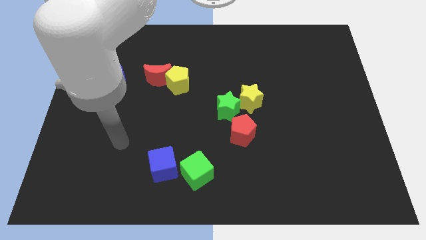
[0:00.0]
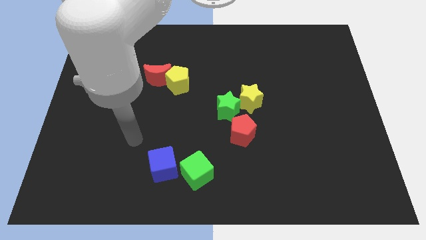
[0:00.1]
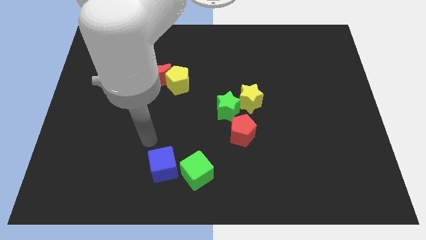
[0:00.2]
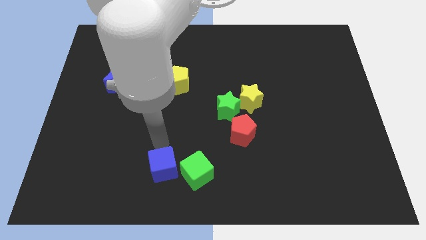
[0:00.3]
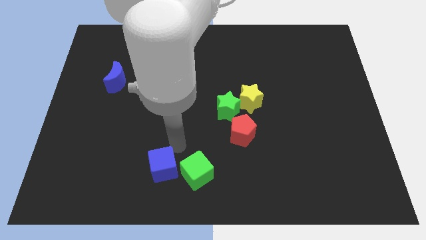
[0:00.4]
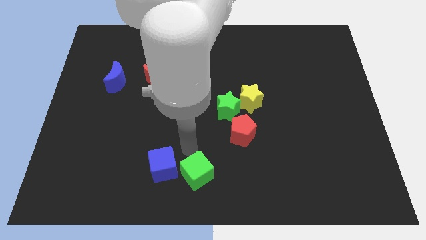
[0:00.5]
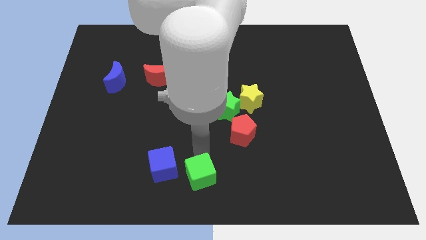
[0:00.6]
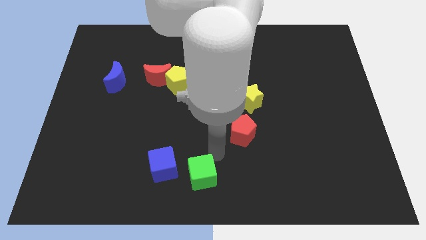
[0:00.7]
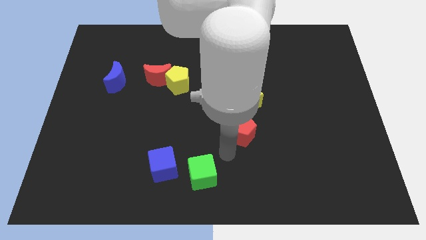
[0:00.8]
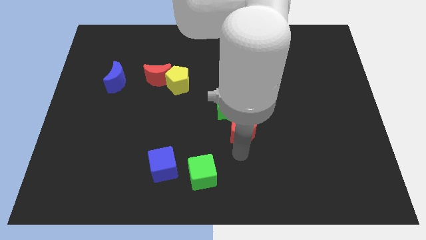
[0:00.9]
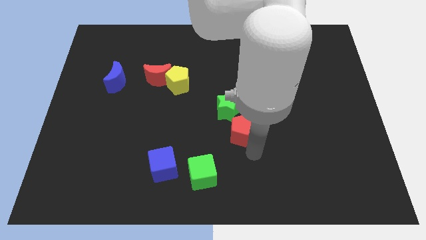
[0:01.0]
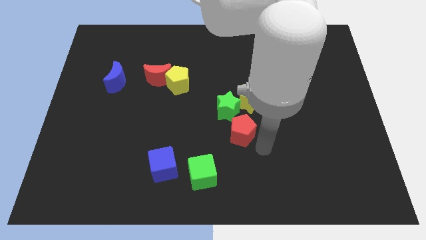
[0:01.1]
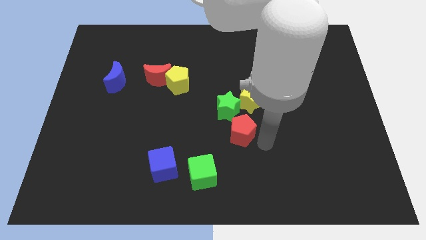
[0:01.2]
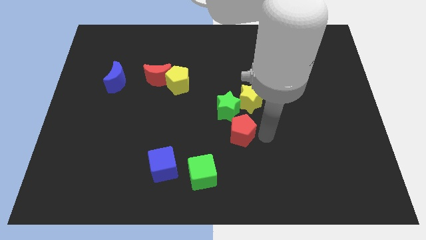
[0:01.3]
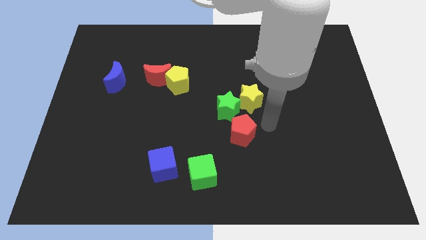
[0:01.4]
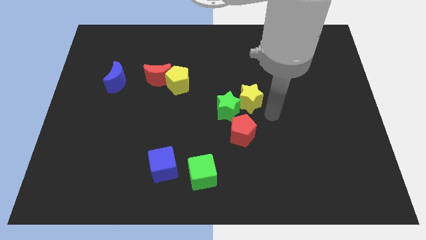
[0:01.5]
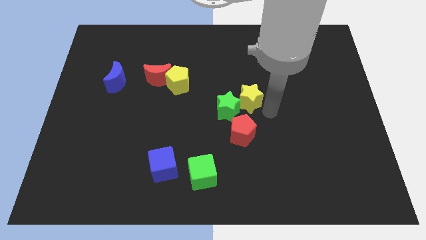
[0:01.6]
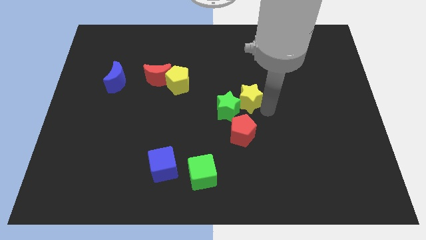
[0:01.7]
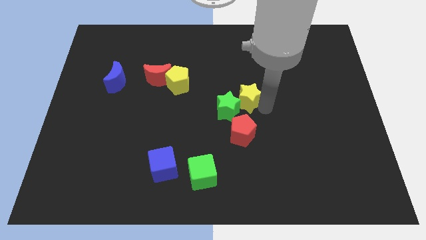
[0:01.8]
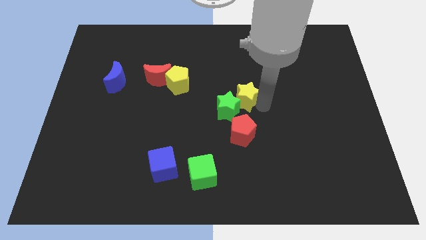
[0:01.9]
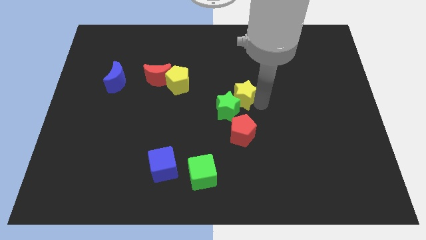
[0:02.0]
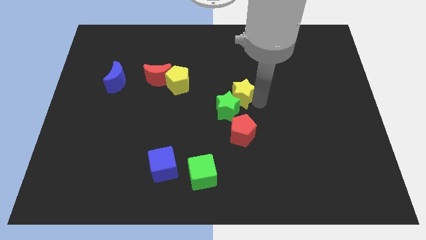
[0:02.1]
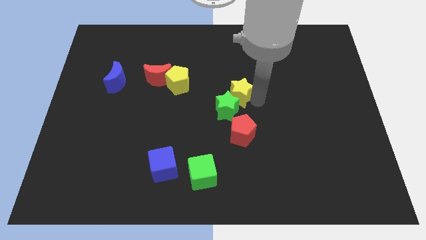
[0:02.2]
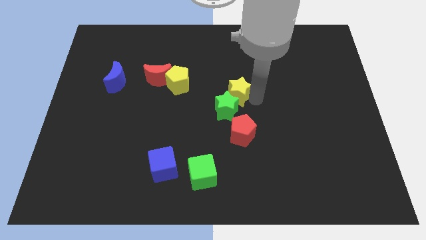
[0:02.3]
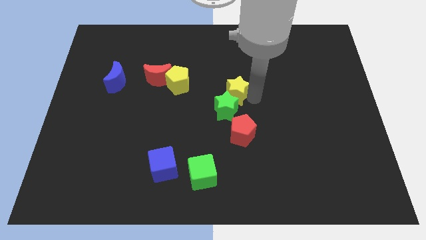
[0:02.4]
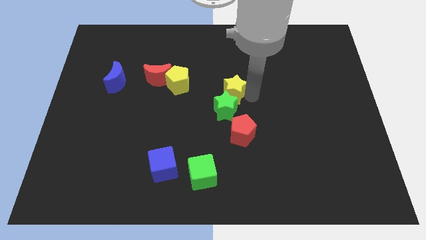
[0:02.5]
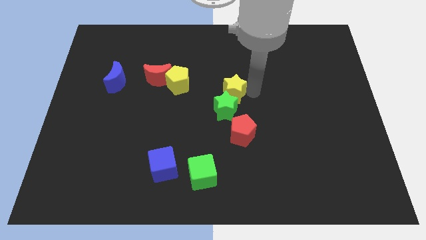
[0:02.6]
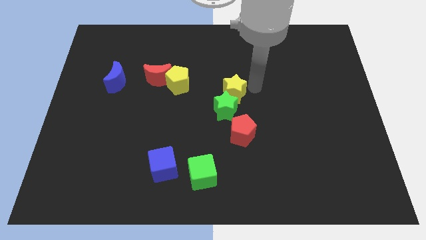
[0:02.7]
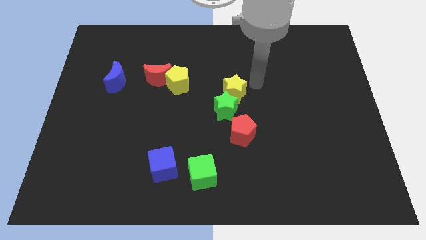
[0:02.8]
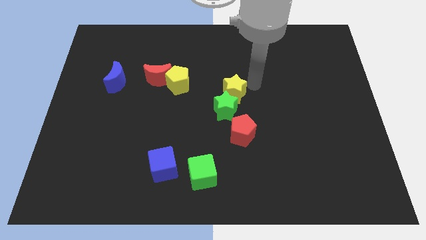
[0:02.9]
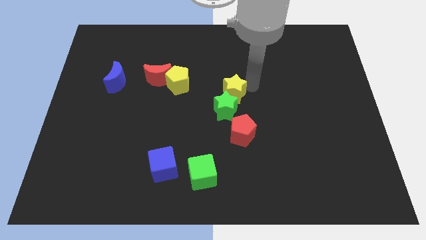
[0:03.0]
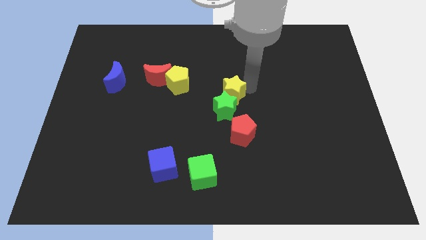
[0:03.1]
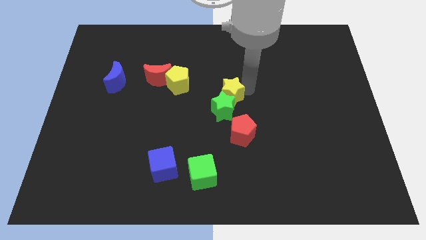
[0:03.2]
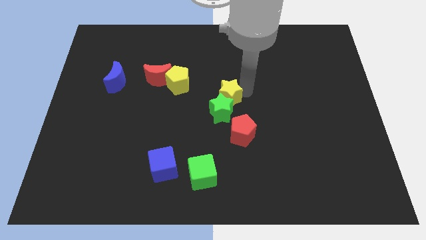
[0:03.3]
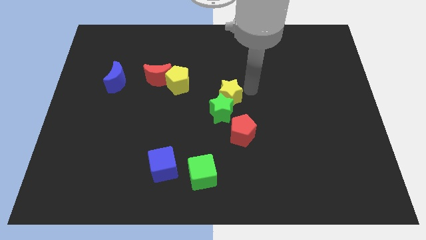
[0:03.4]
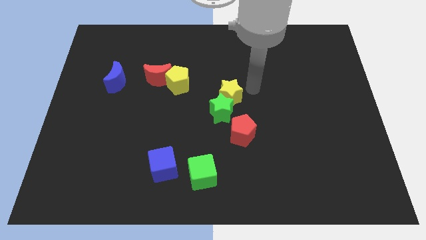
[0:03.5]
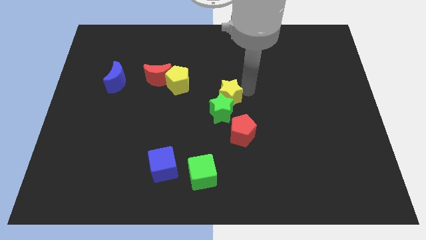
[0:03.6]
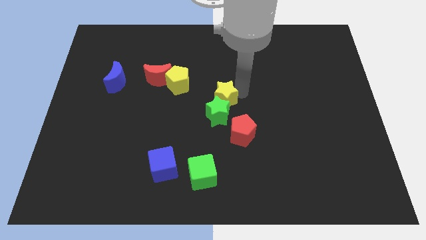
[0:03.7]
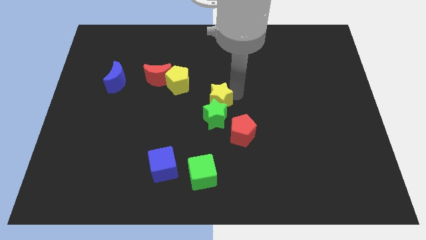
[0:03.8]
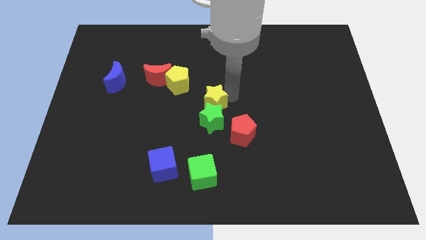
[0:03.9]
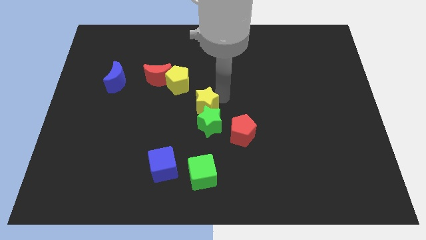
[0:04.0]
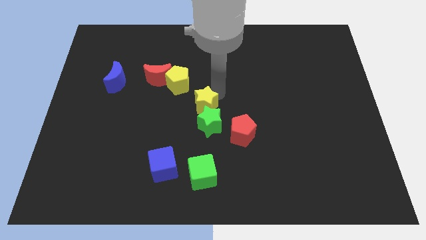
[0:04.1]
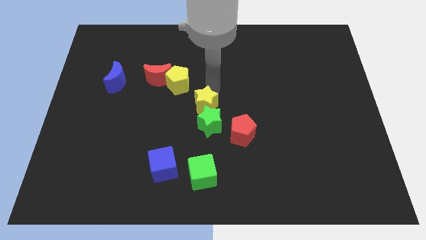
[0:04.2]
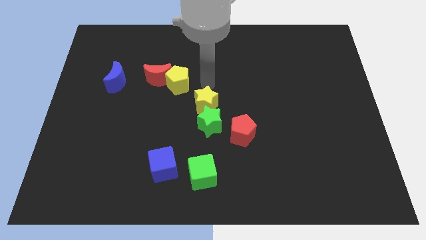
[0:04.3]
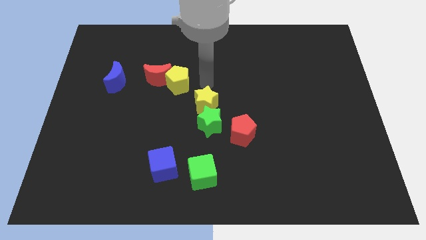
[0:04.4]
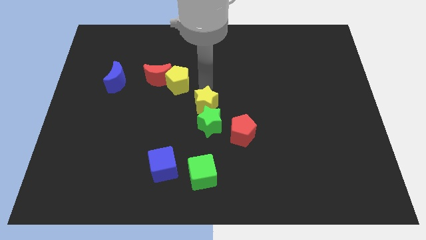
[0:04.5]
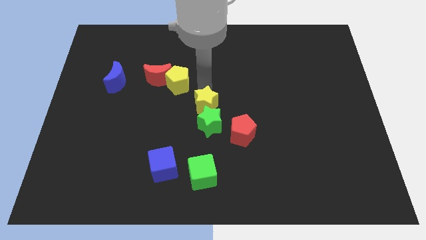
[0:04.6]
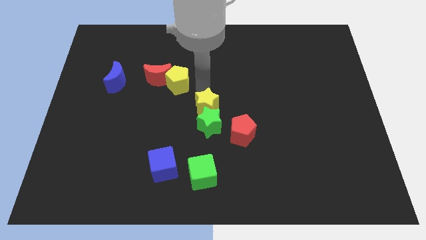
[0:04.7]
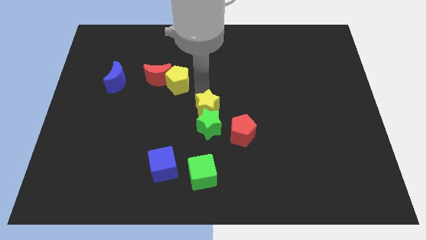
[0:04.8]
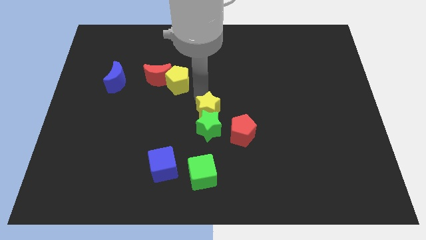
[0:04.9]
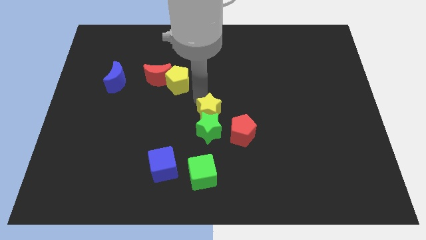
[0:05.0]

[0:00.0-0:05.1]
put the yellow star to the top side of the green cube

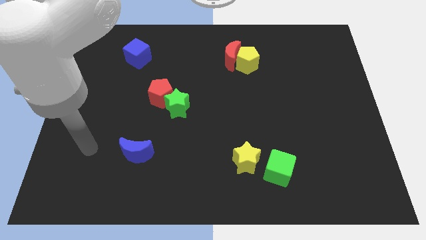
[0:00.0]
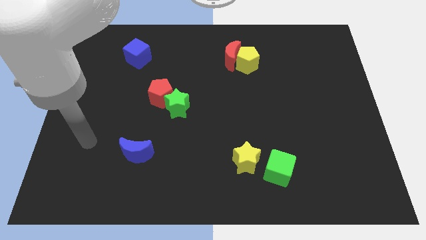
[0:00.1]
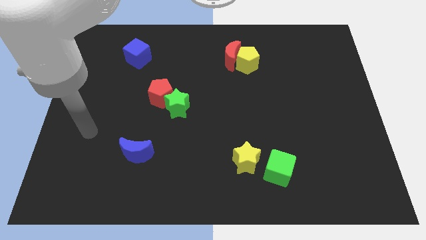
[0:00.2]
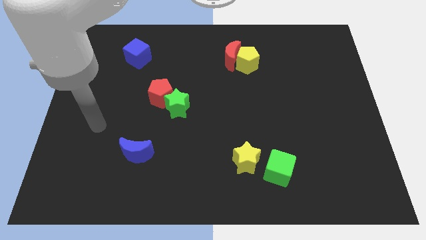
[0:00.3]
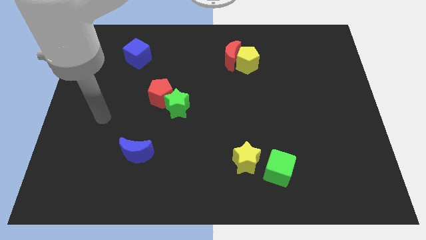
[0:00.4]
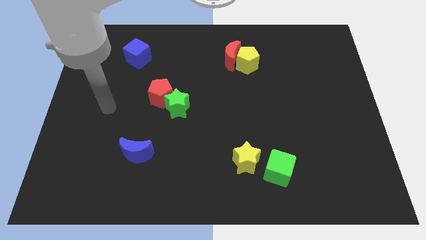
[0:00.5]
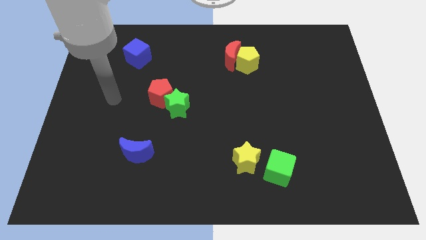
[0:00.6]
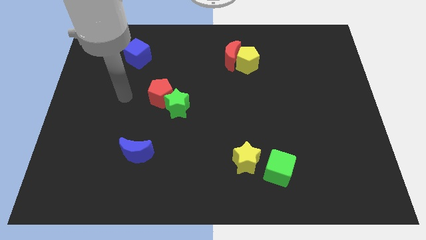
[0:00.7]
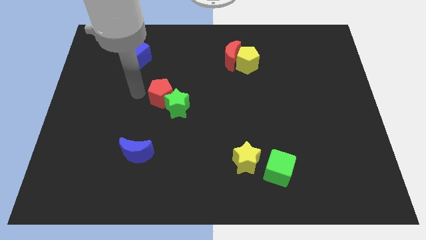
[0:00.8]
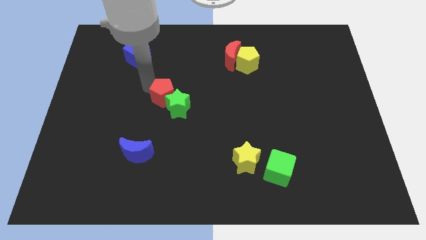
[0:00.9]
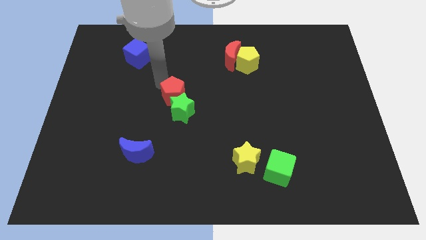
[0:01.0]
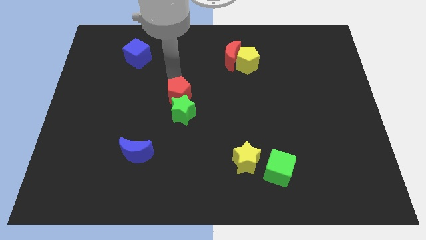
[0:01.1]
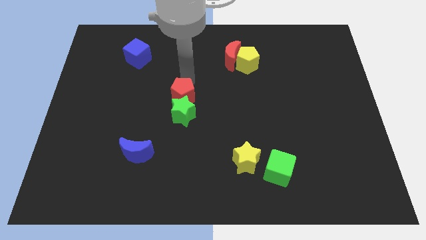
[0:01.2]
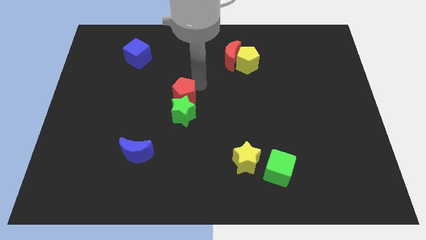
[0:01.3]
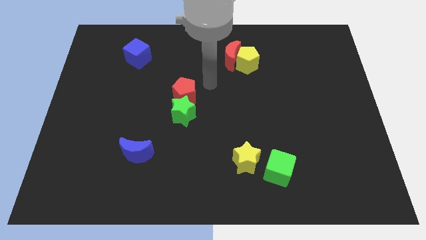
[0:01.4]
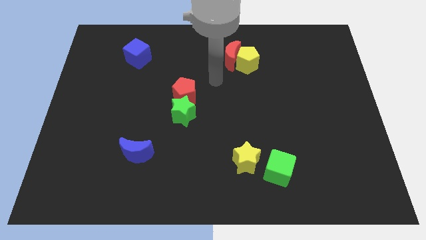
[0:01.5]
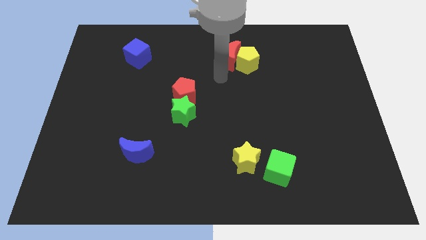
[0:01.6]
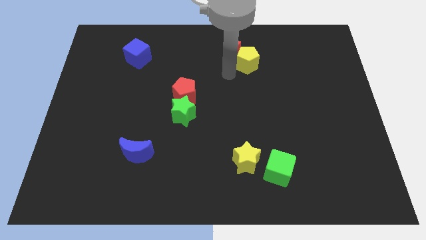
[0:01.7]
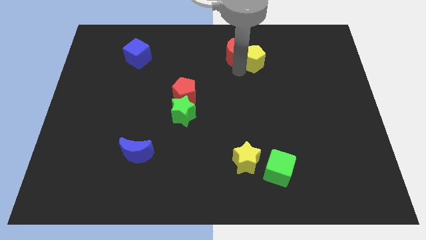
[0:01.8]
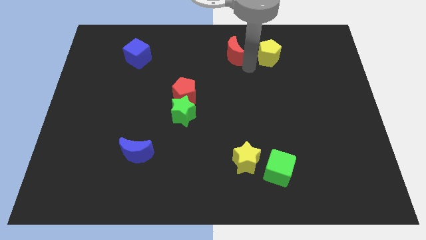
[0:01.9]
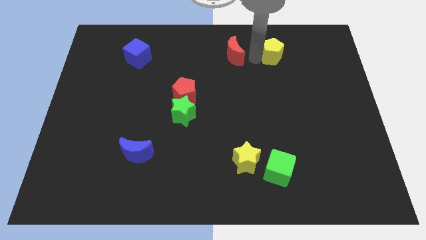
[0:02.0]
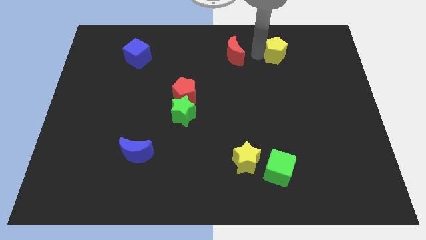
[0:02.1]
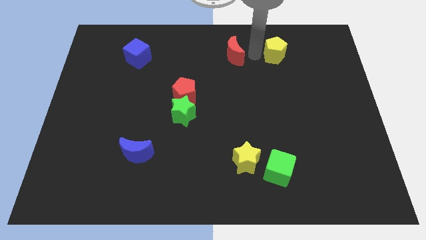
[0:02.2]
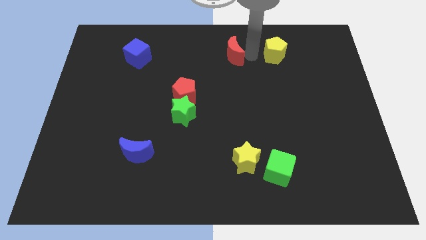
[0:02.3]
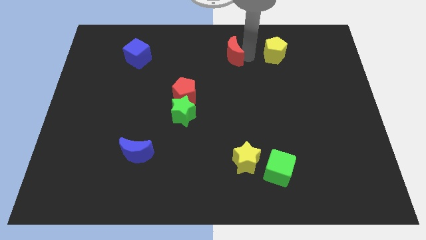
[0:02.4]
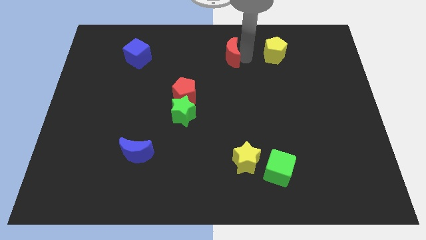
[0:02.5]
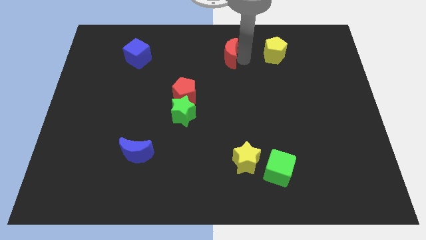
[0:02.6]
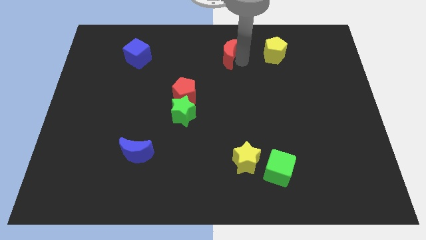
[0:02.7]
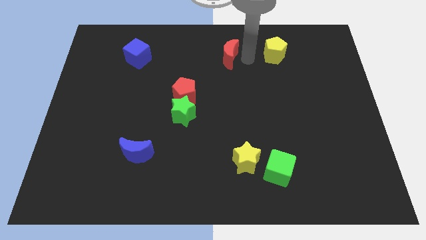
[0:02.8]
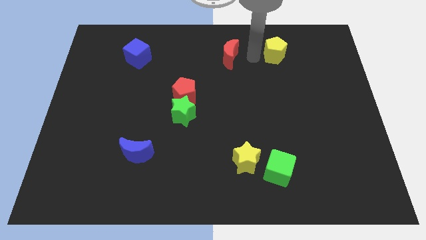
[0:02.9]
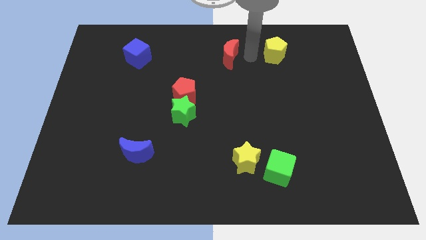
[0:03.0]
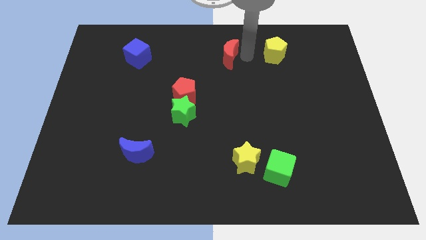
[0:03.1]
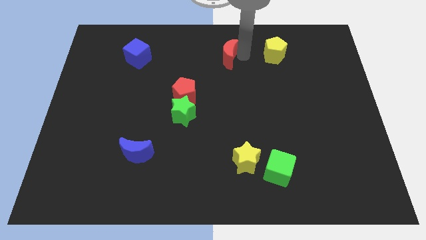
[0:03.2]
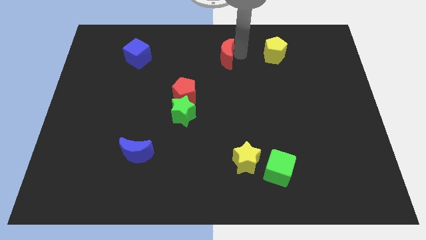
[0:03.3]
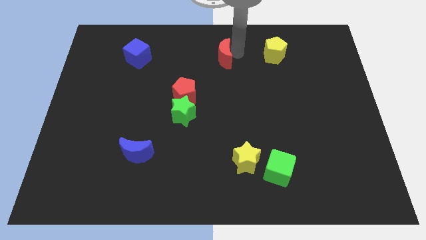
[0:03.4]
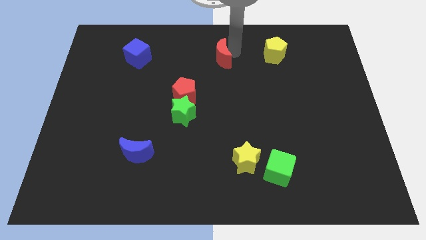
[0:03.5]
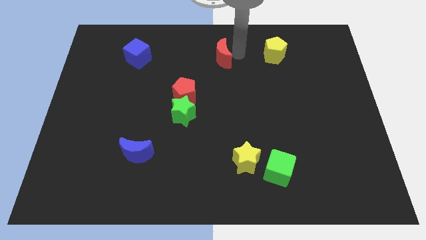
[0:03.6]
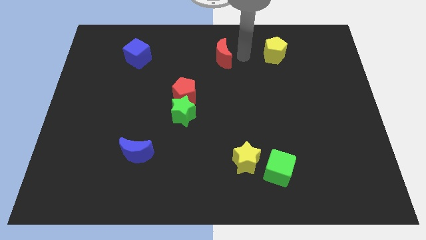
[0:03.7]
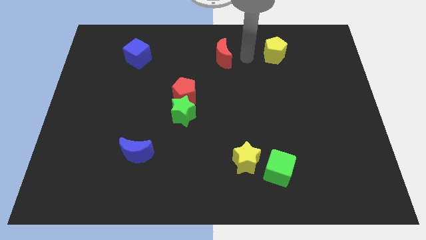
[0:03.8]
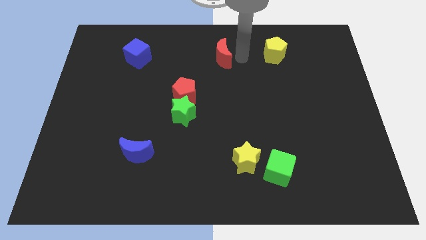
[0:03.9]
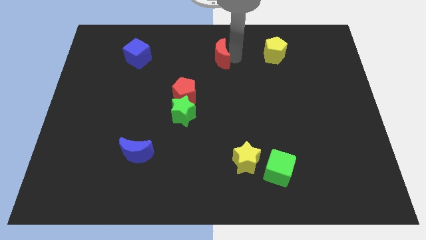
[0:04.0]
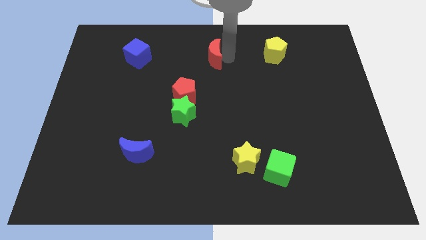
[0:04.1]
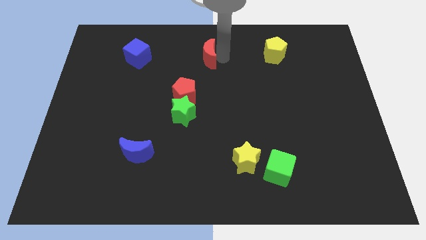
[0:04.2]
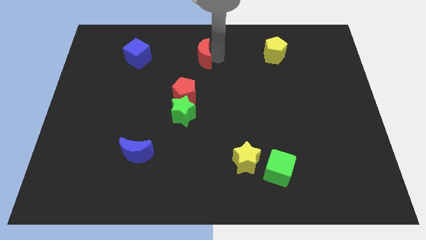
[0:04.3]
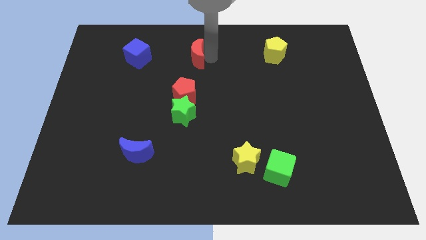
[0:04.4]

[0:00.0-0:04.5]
put the red moon to the right of the blue cube
